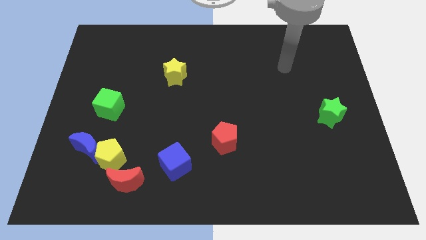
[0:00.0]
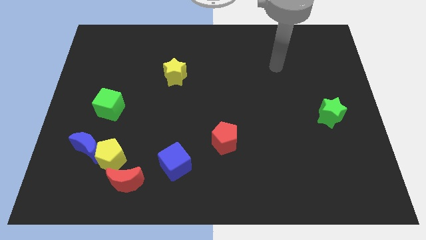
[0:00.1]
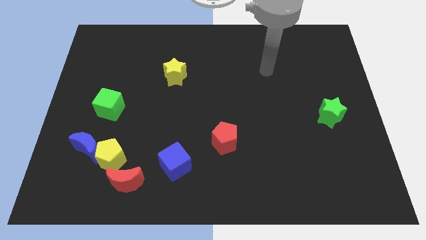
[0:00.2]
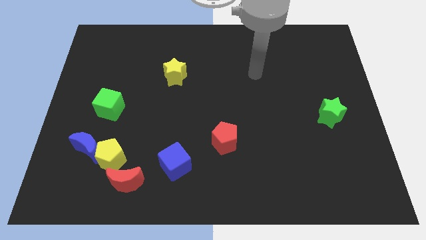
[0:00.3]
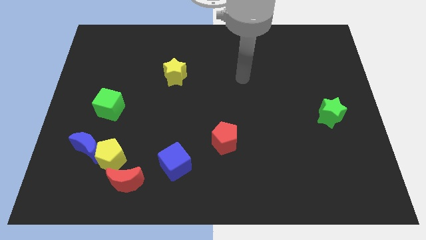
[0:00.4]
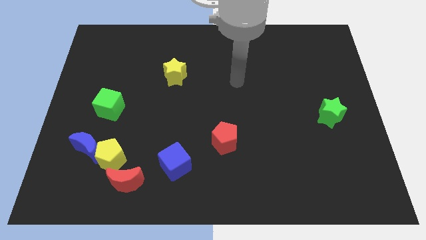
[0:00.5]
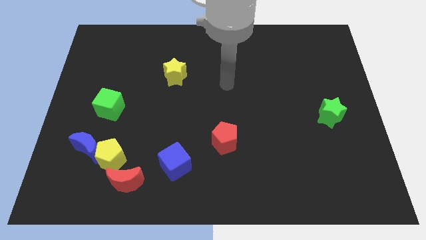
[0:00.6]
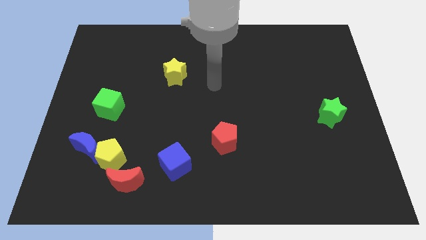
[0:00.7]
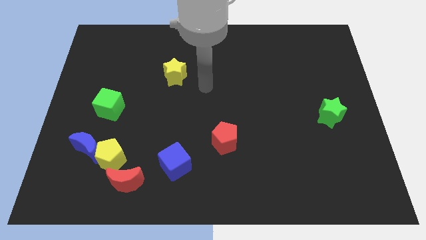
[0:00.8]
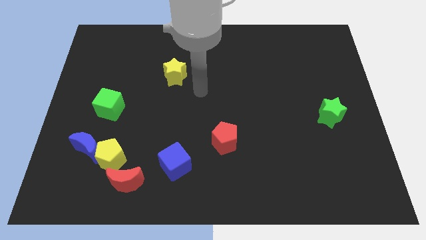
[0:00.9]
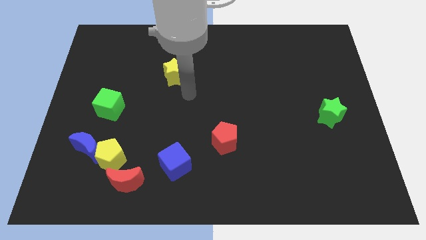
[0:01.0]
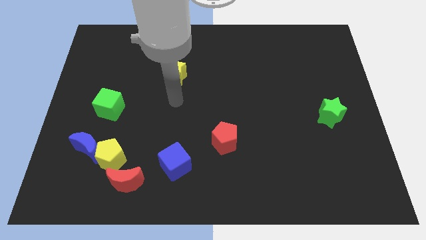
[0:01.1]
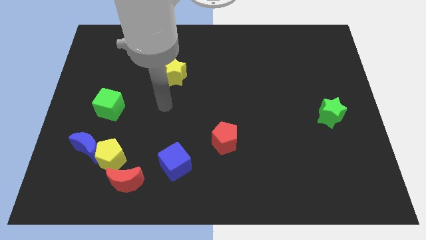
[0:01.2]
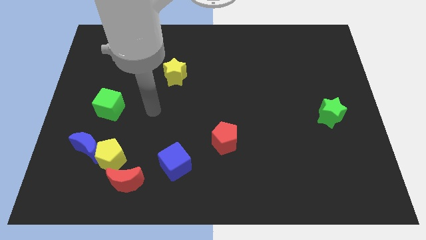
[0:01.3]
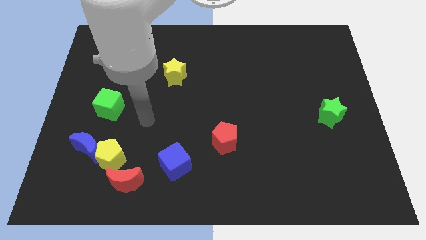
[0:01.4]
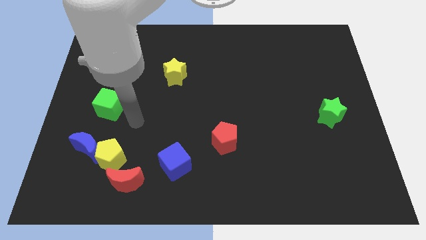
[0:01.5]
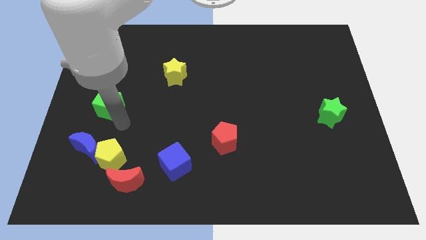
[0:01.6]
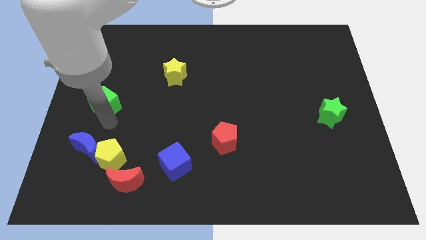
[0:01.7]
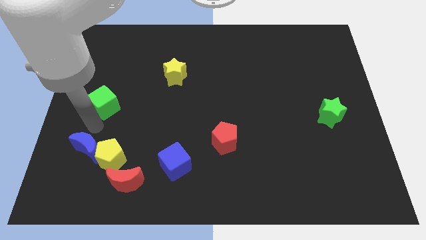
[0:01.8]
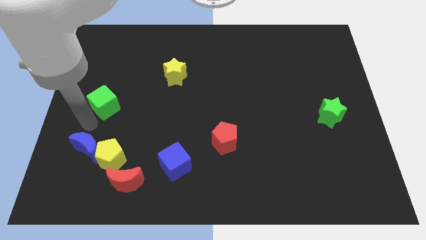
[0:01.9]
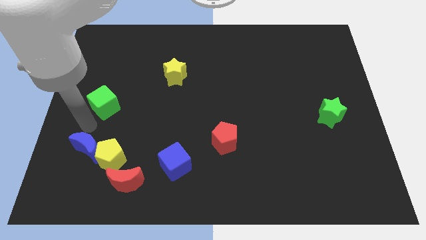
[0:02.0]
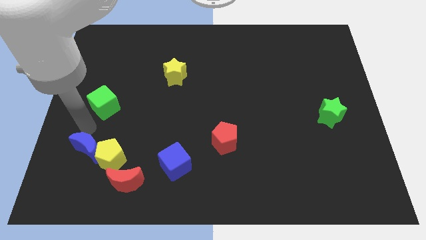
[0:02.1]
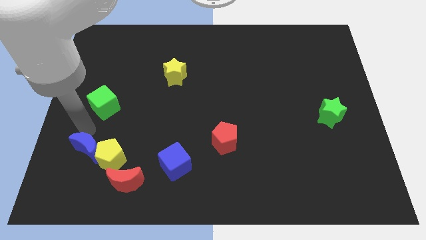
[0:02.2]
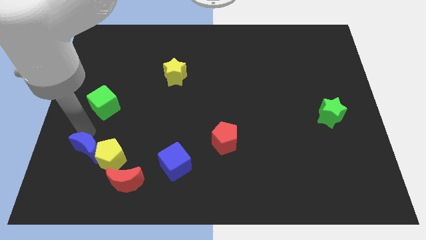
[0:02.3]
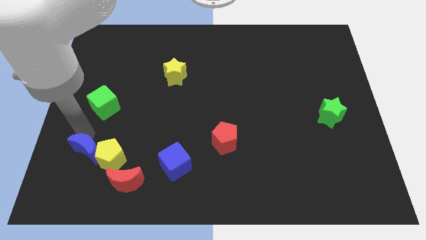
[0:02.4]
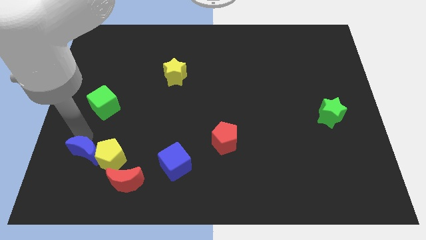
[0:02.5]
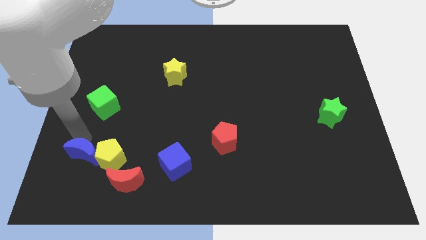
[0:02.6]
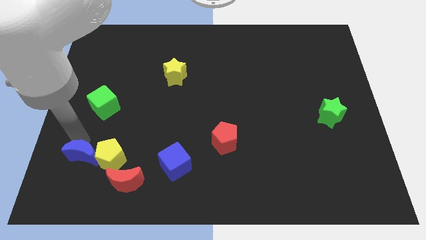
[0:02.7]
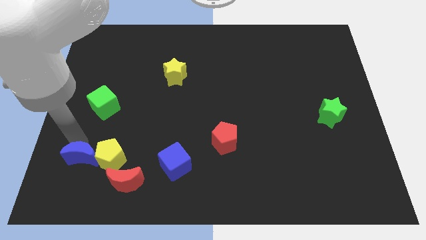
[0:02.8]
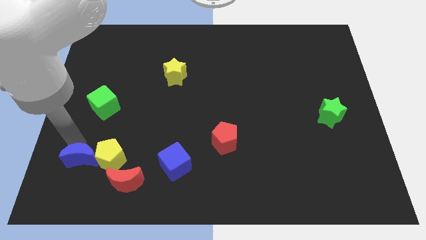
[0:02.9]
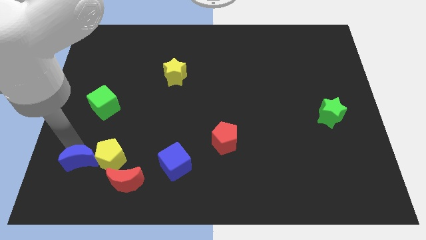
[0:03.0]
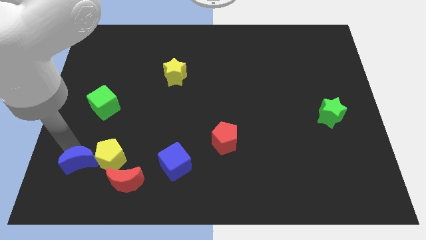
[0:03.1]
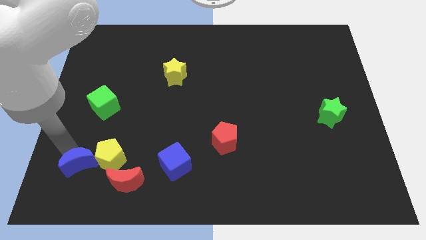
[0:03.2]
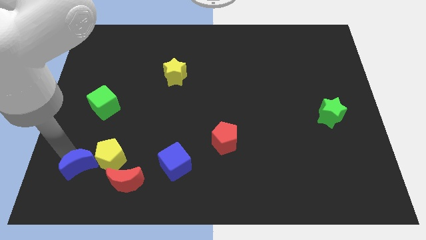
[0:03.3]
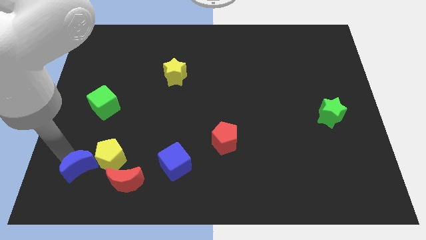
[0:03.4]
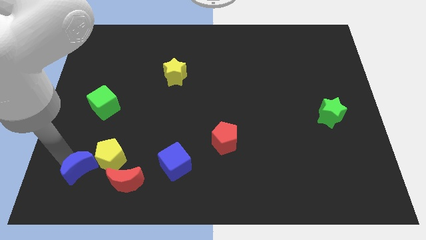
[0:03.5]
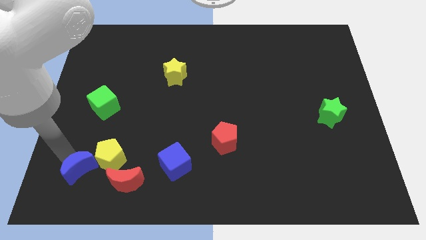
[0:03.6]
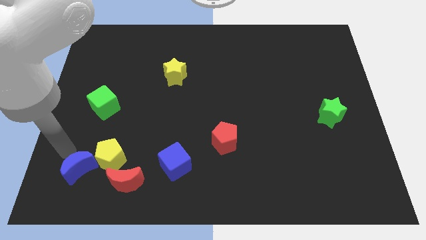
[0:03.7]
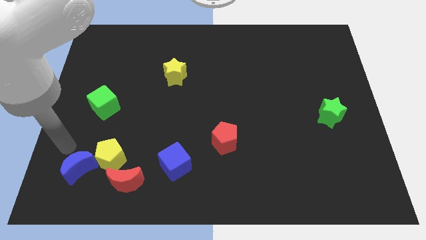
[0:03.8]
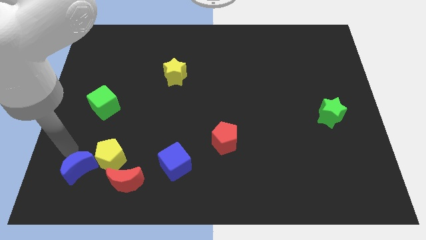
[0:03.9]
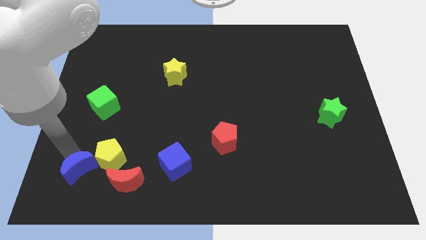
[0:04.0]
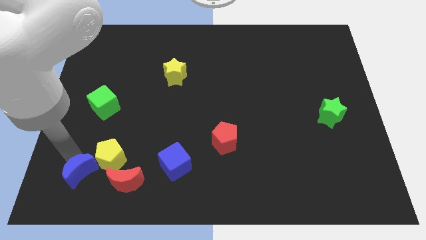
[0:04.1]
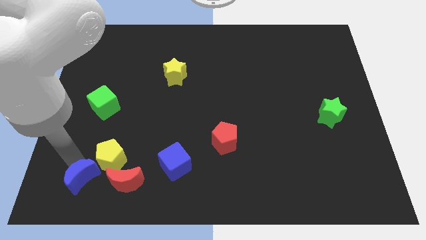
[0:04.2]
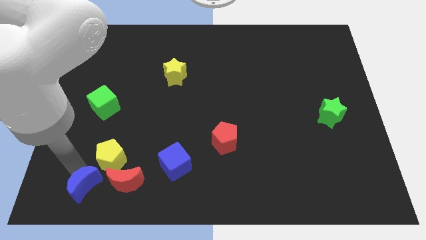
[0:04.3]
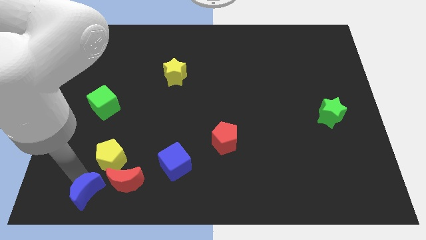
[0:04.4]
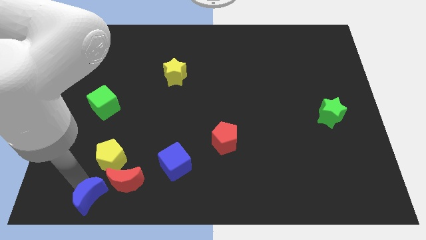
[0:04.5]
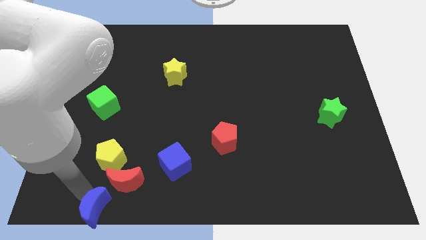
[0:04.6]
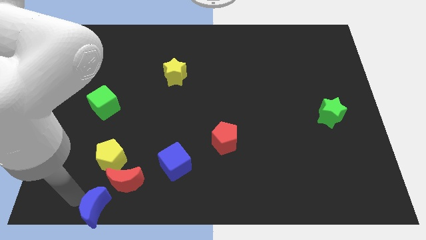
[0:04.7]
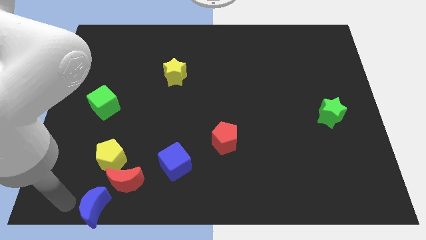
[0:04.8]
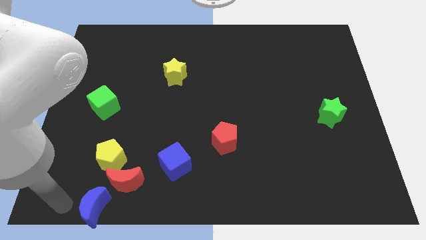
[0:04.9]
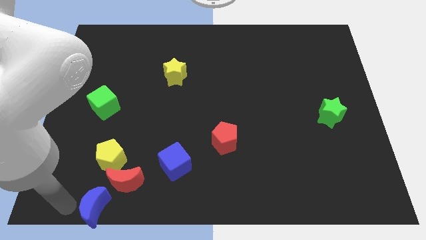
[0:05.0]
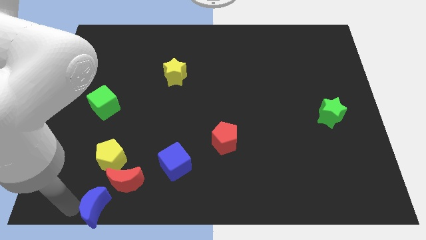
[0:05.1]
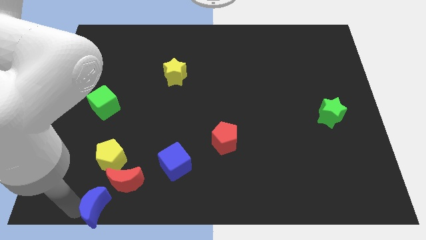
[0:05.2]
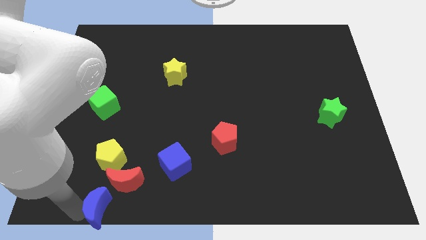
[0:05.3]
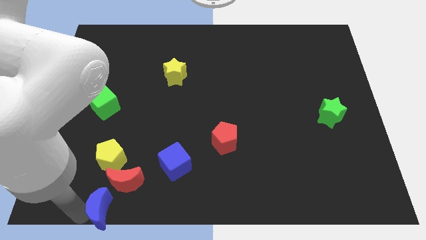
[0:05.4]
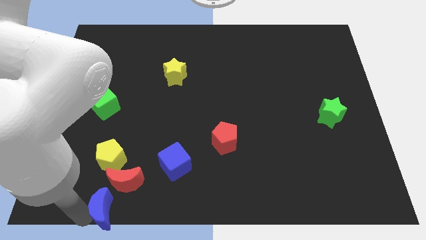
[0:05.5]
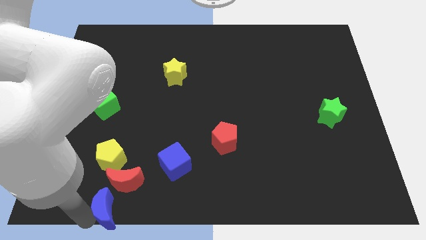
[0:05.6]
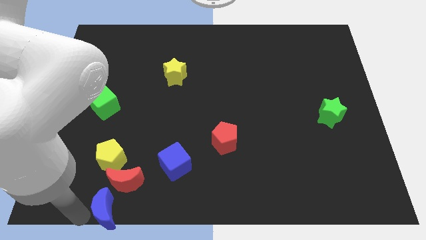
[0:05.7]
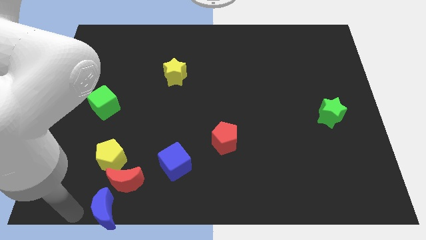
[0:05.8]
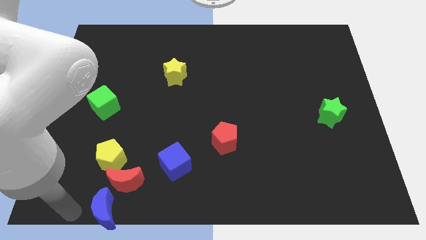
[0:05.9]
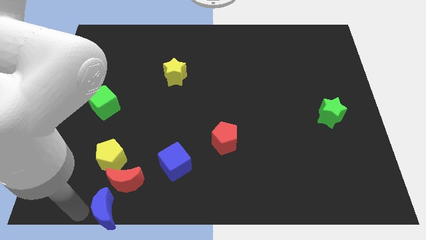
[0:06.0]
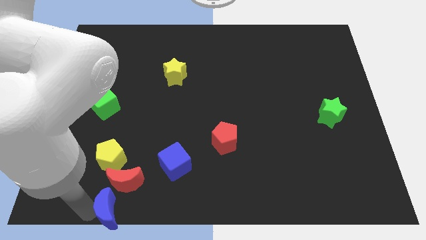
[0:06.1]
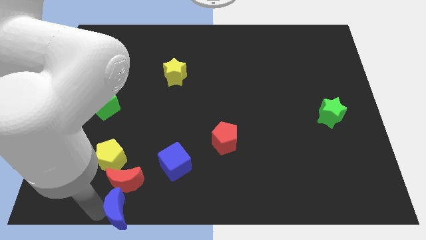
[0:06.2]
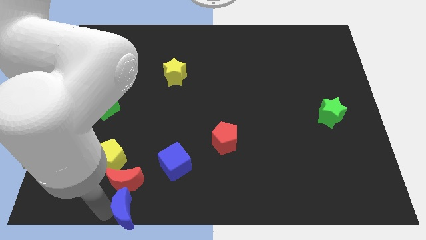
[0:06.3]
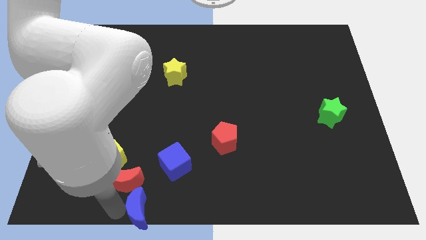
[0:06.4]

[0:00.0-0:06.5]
slide the blue moon to the bottom side

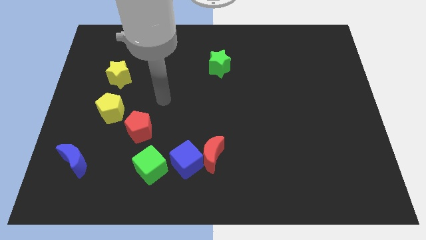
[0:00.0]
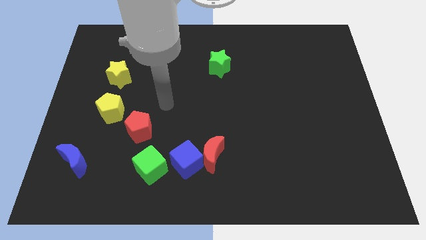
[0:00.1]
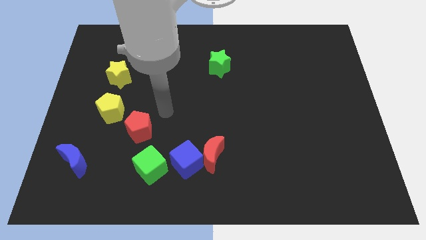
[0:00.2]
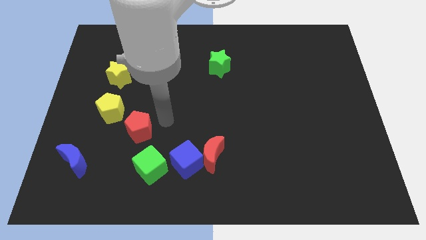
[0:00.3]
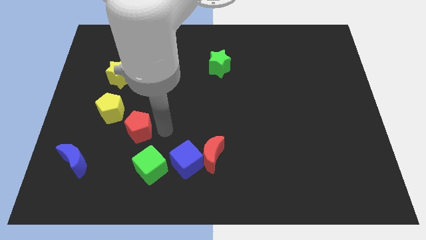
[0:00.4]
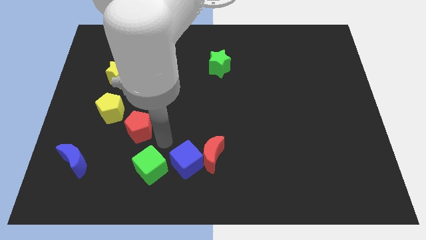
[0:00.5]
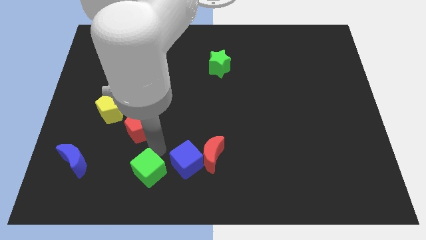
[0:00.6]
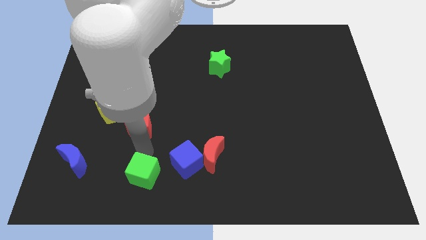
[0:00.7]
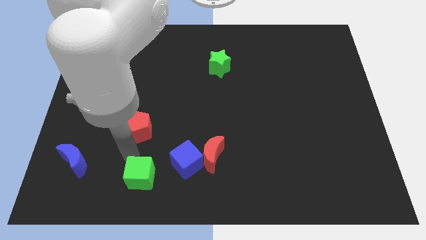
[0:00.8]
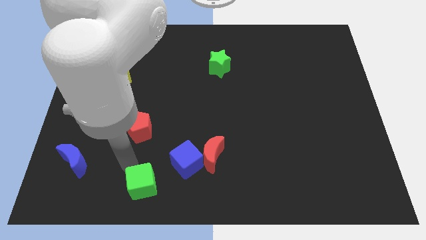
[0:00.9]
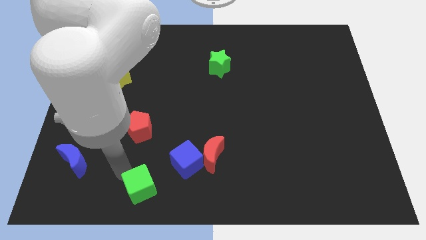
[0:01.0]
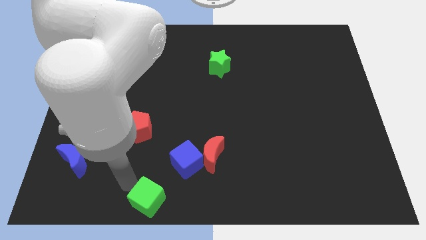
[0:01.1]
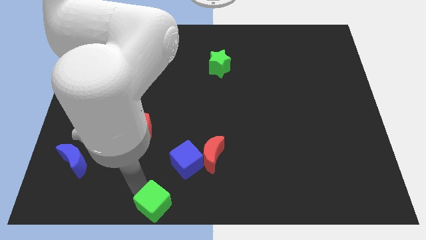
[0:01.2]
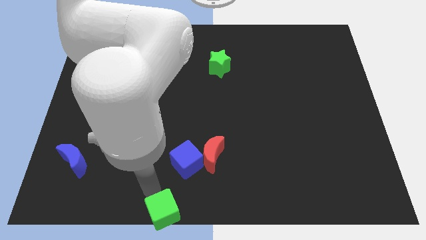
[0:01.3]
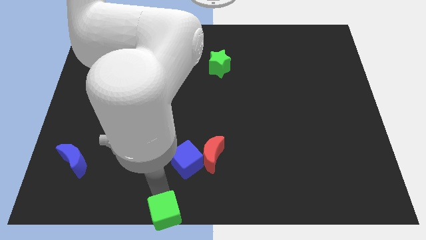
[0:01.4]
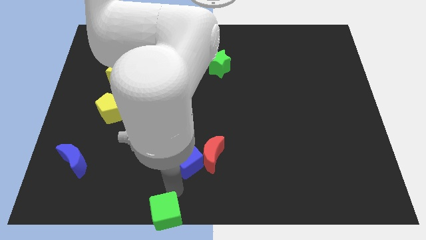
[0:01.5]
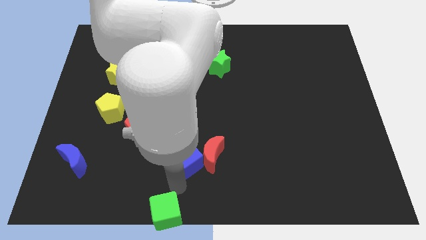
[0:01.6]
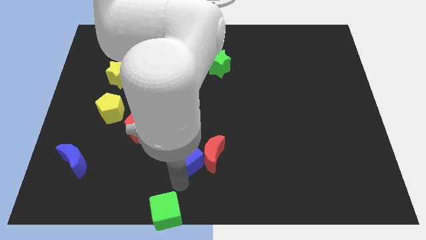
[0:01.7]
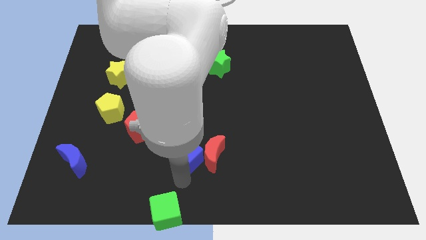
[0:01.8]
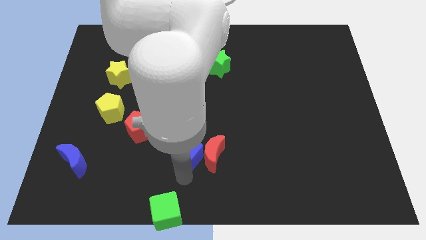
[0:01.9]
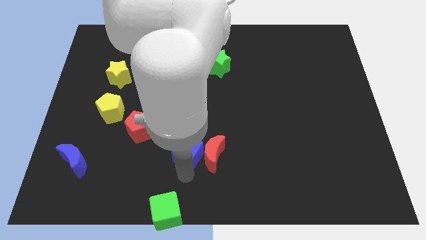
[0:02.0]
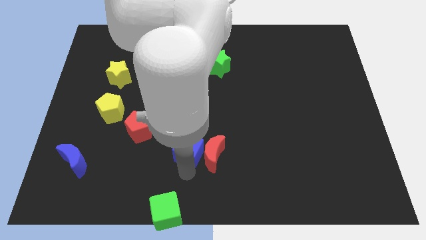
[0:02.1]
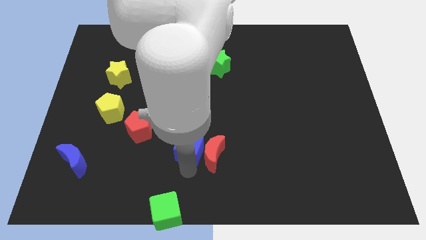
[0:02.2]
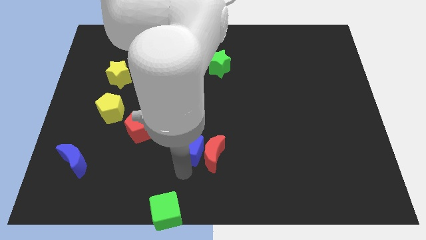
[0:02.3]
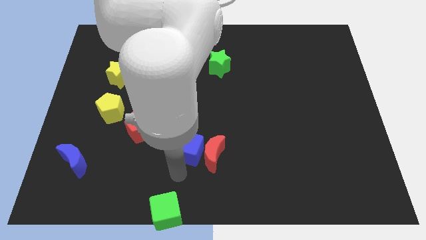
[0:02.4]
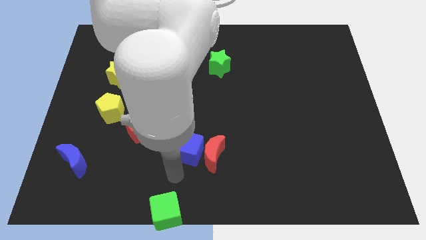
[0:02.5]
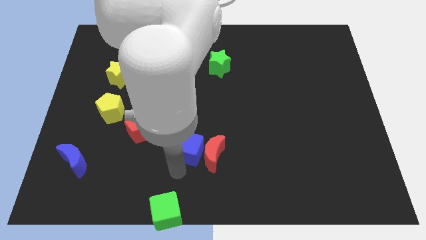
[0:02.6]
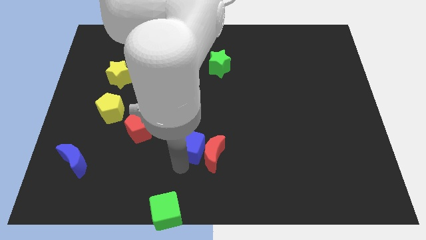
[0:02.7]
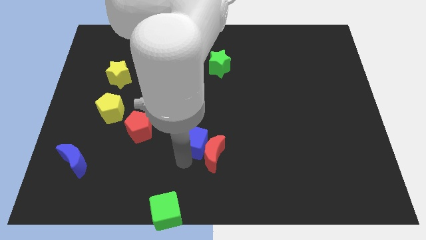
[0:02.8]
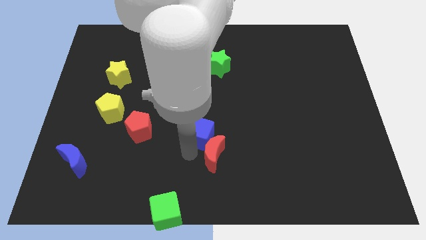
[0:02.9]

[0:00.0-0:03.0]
push the blue cube to the center
